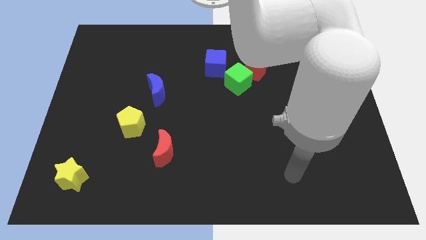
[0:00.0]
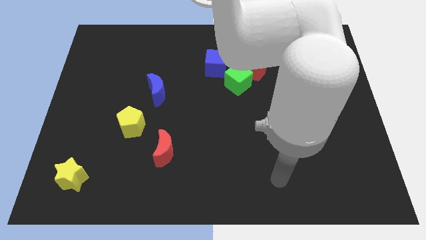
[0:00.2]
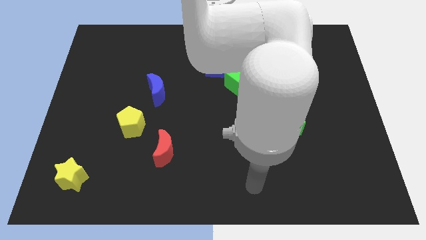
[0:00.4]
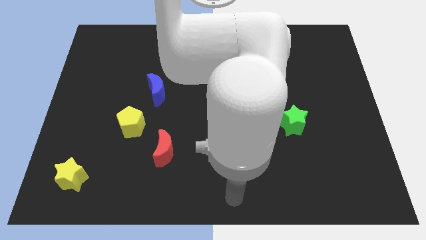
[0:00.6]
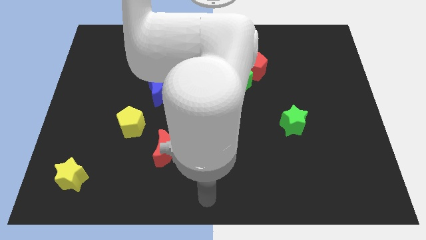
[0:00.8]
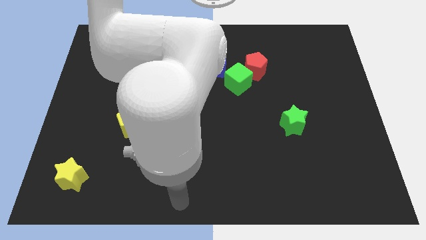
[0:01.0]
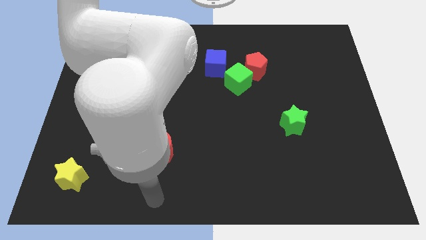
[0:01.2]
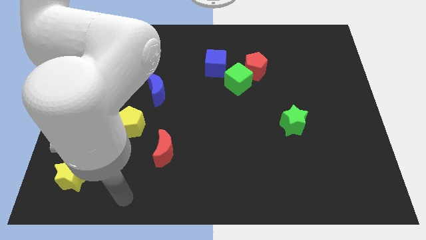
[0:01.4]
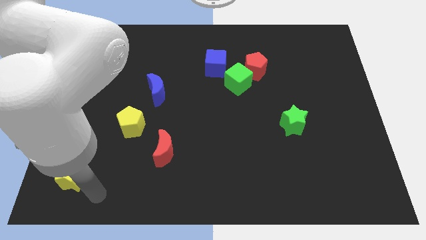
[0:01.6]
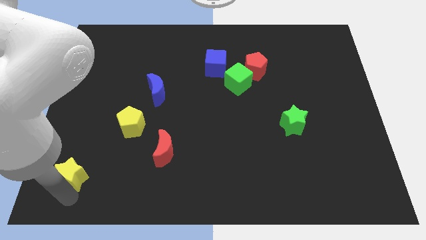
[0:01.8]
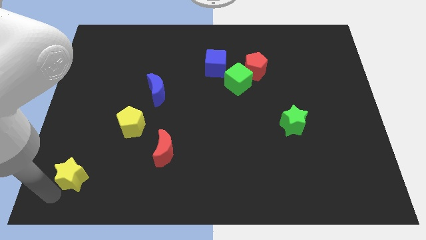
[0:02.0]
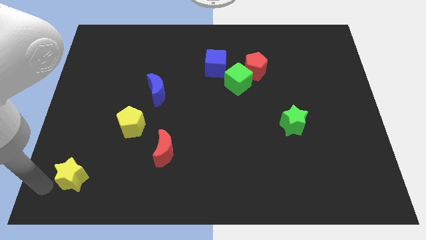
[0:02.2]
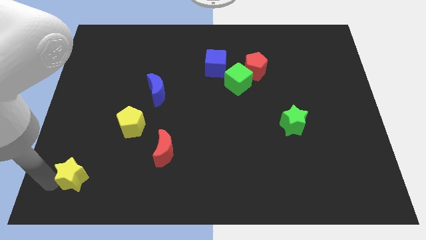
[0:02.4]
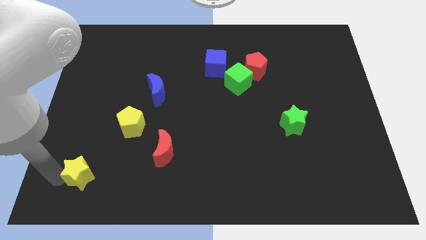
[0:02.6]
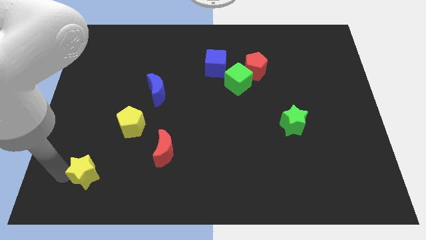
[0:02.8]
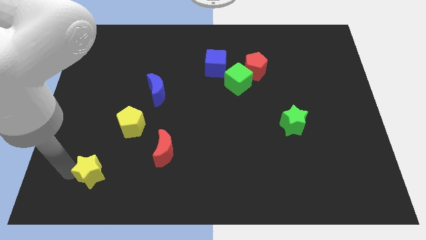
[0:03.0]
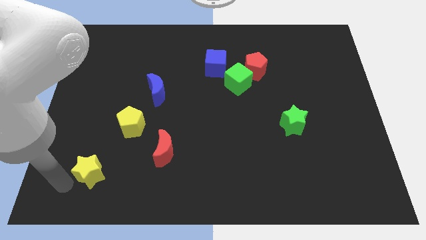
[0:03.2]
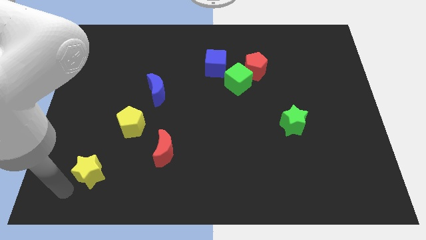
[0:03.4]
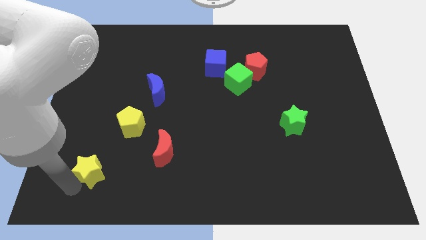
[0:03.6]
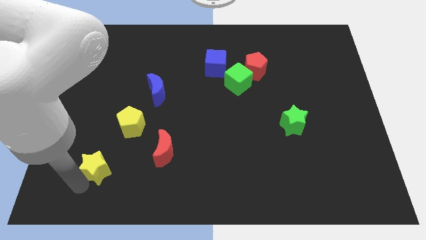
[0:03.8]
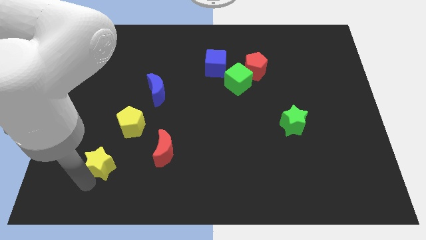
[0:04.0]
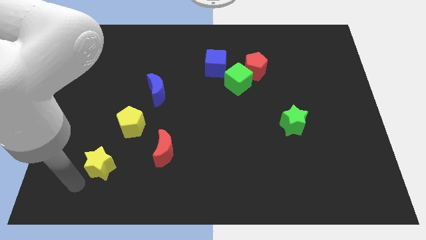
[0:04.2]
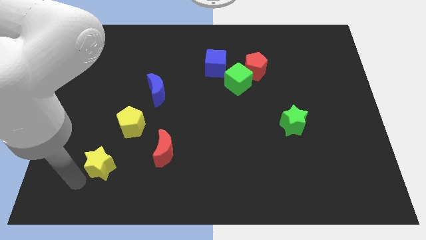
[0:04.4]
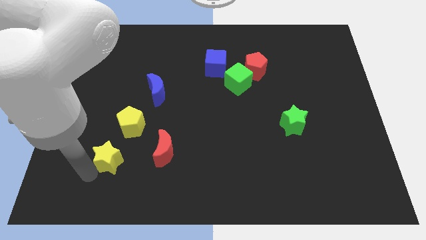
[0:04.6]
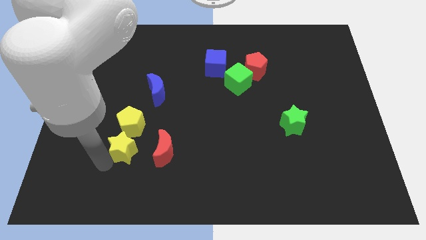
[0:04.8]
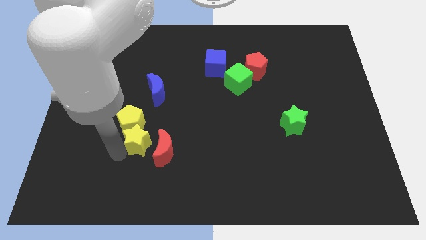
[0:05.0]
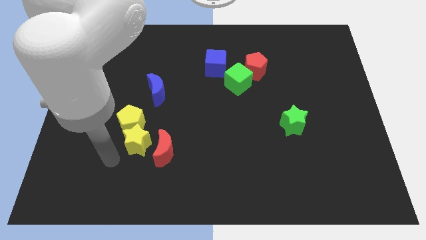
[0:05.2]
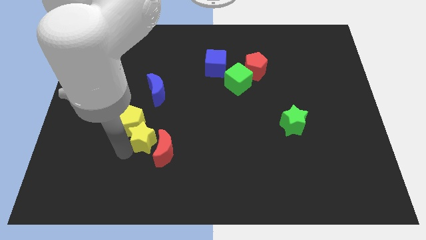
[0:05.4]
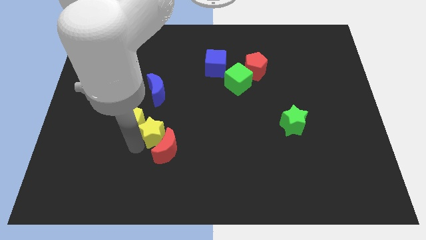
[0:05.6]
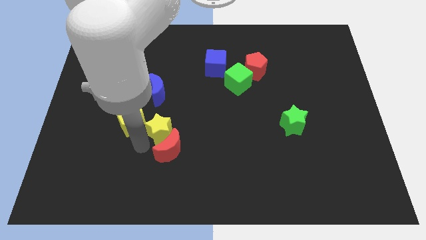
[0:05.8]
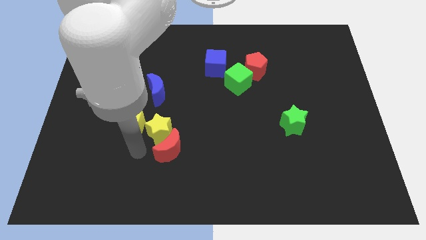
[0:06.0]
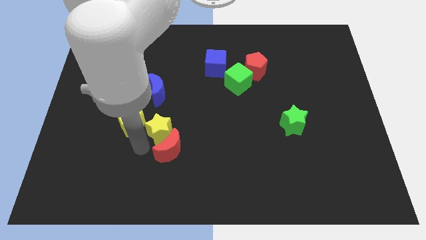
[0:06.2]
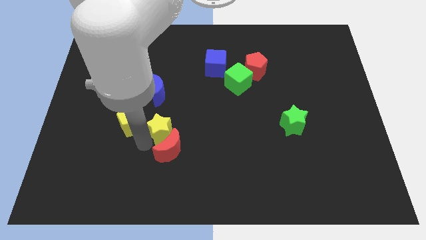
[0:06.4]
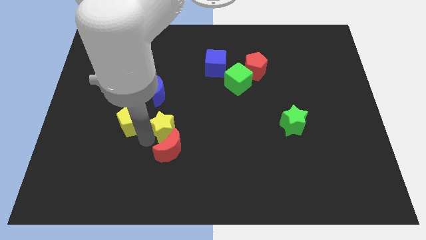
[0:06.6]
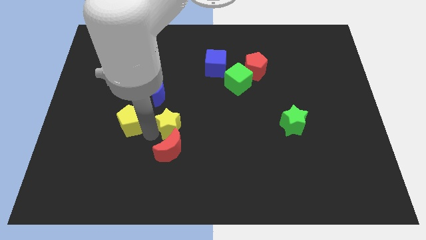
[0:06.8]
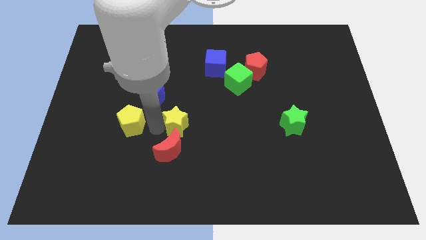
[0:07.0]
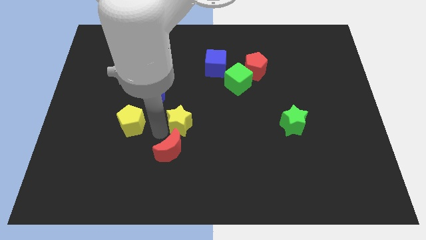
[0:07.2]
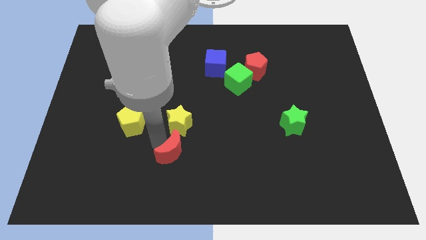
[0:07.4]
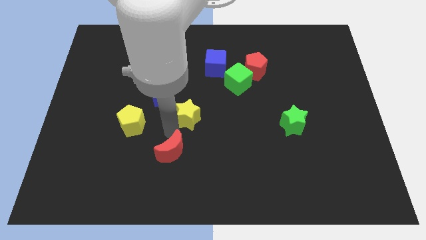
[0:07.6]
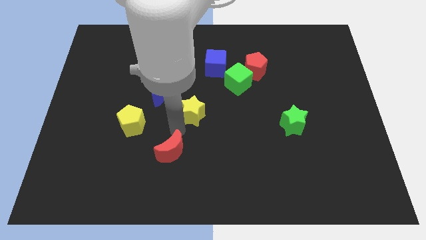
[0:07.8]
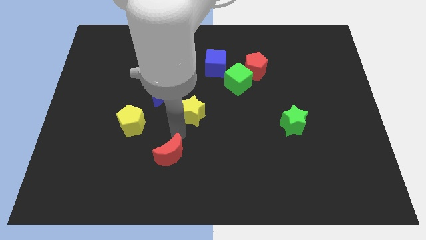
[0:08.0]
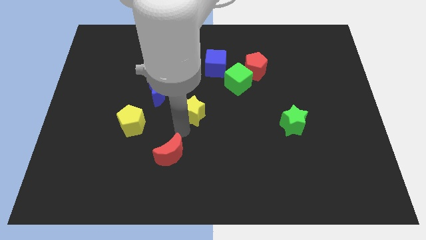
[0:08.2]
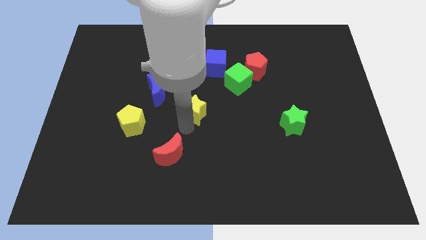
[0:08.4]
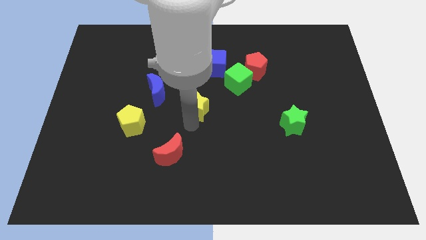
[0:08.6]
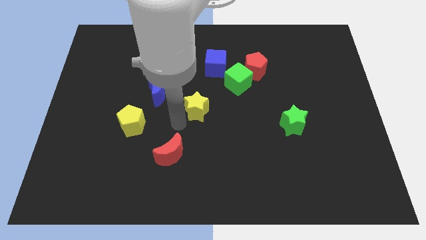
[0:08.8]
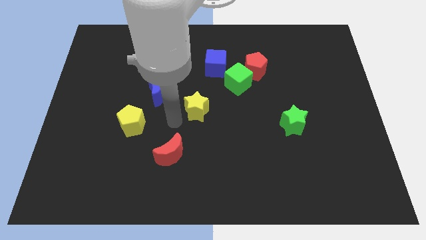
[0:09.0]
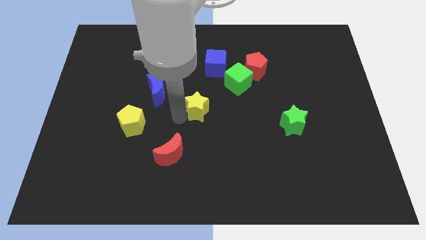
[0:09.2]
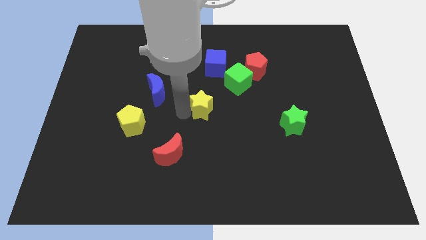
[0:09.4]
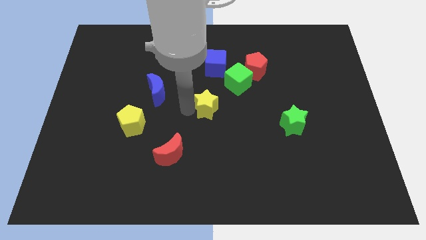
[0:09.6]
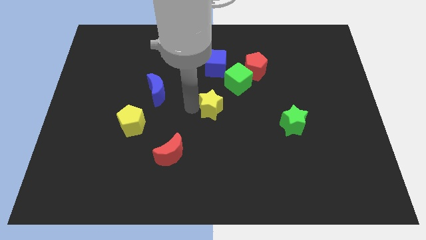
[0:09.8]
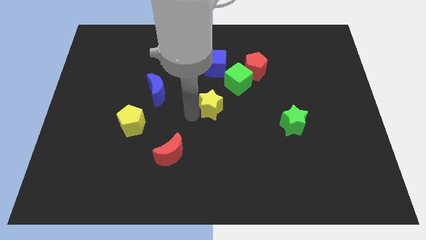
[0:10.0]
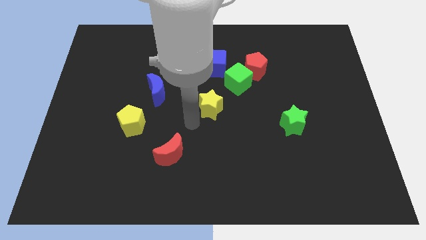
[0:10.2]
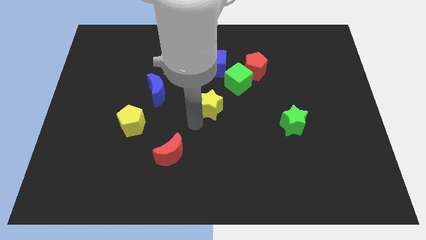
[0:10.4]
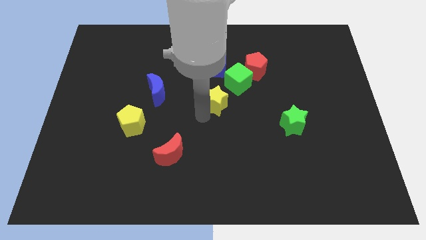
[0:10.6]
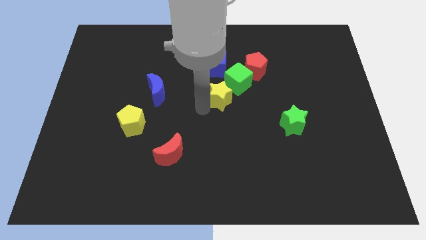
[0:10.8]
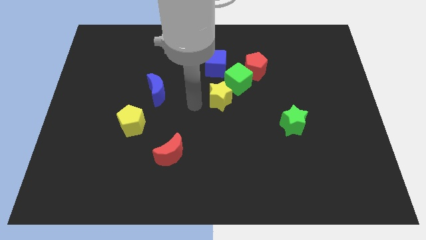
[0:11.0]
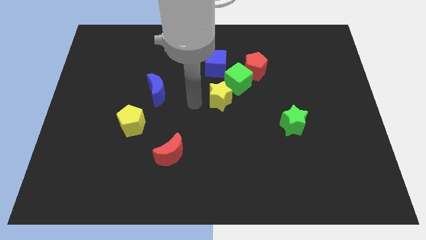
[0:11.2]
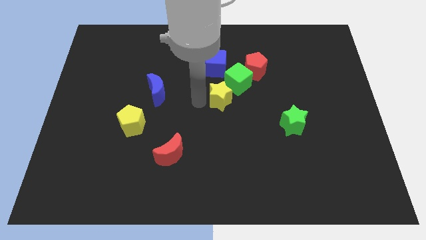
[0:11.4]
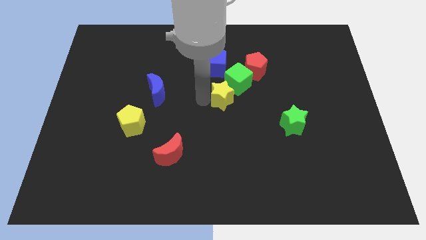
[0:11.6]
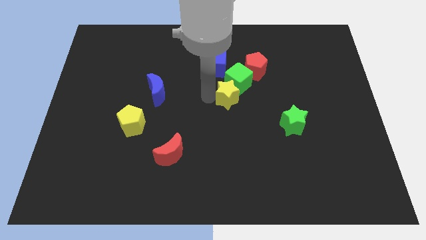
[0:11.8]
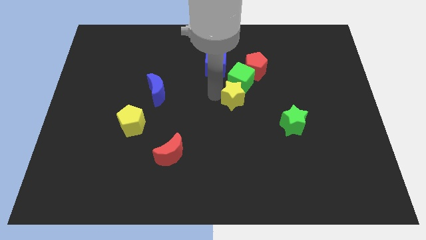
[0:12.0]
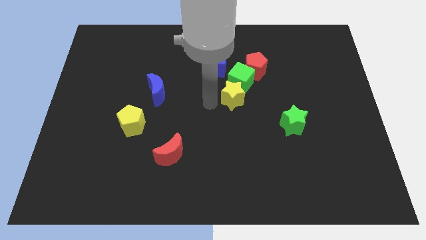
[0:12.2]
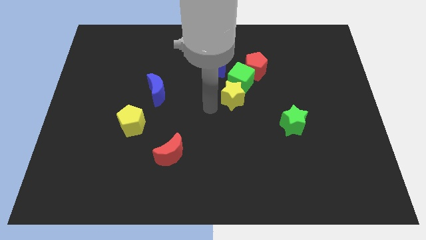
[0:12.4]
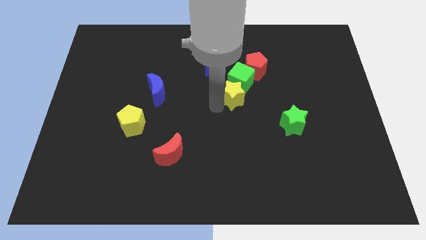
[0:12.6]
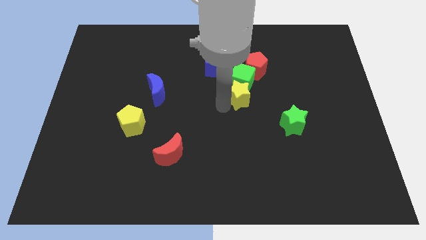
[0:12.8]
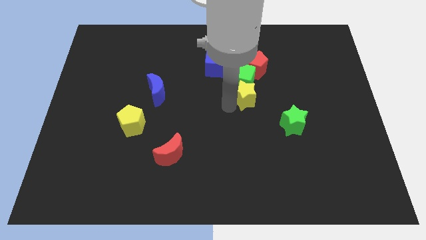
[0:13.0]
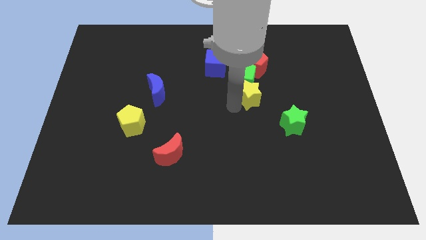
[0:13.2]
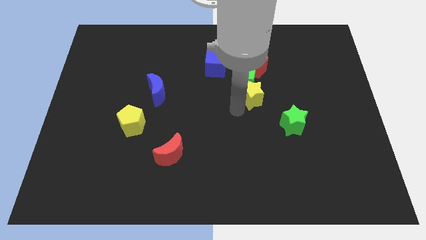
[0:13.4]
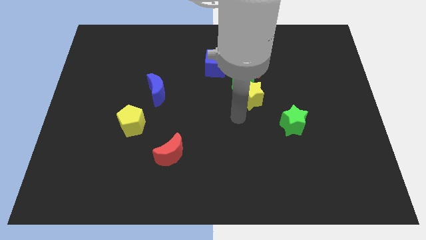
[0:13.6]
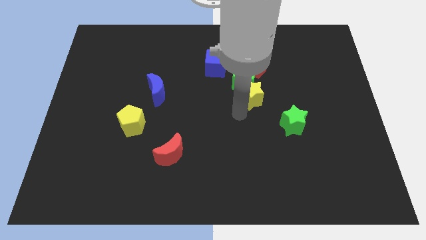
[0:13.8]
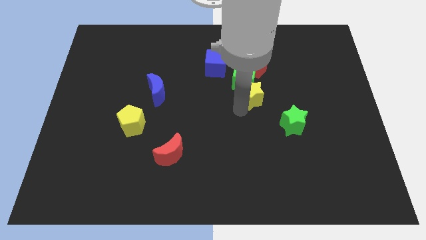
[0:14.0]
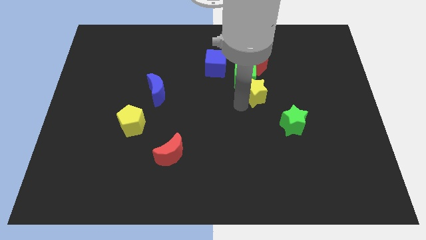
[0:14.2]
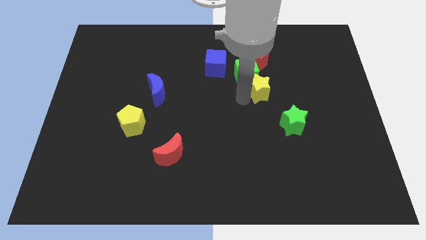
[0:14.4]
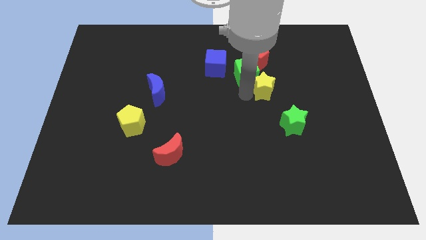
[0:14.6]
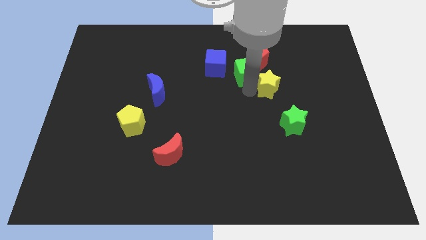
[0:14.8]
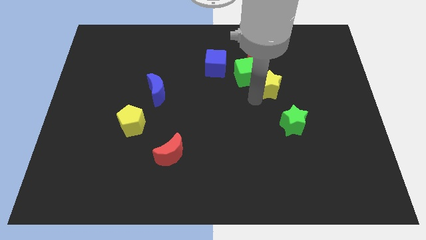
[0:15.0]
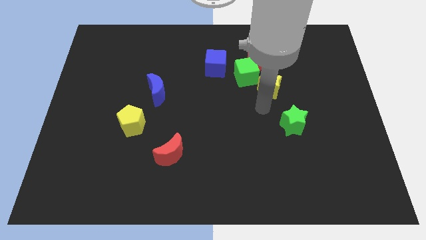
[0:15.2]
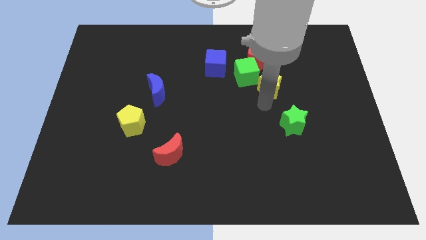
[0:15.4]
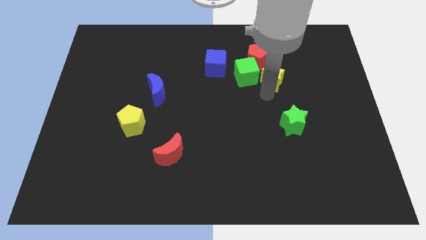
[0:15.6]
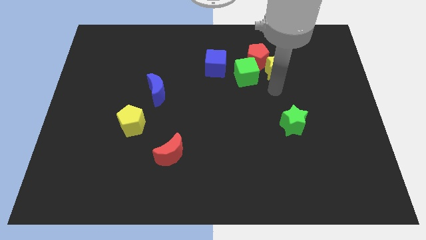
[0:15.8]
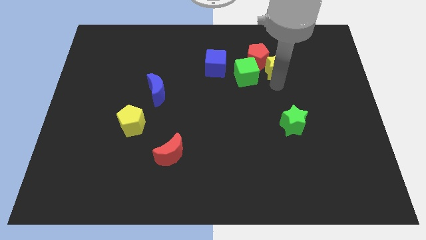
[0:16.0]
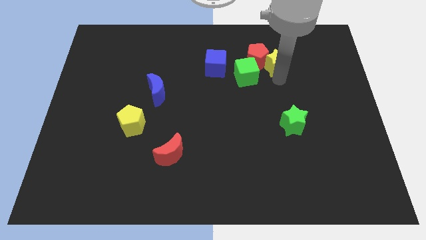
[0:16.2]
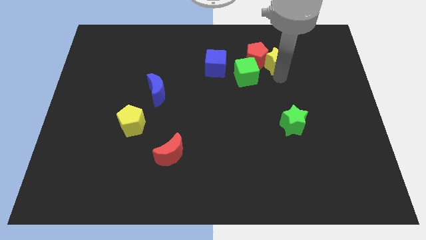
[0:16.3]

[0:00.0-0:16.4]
push the yellow star to the top right of the red pentagon
